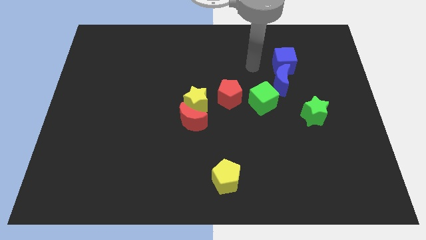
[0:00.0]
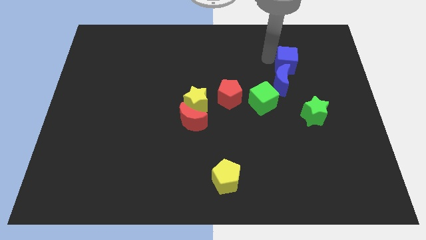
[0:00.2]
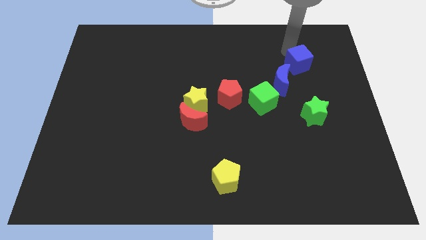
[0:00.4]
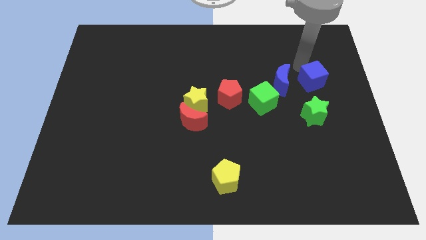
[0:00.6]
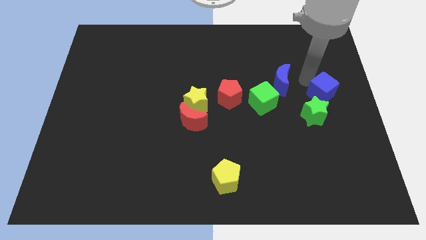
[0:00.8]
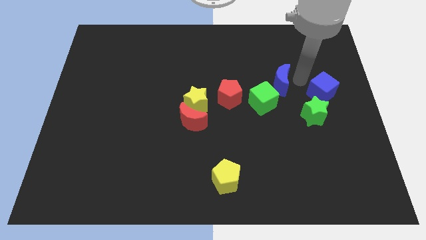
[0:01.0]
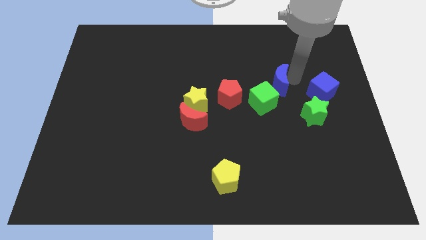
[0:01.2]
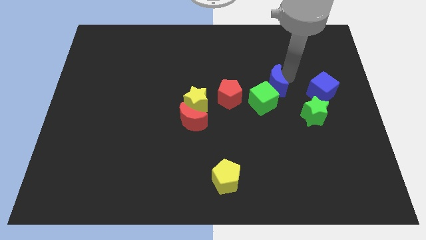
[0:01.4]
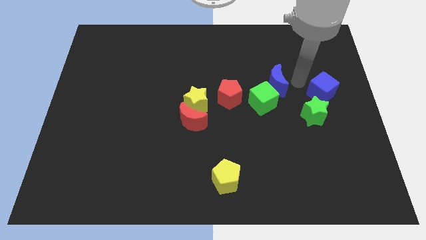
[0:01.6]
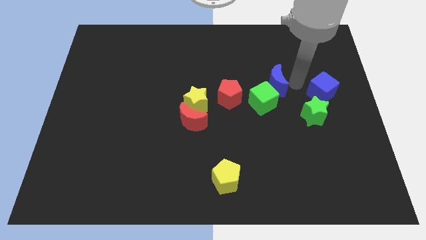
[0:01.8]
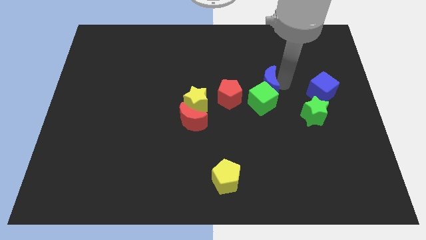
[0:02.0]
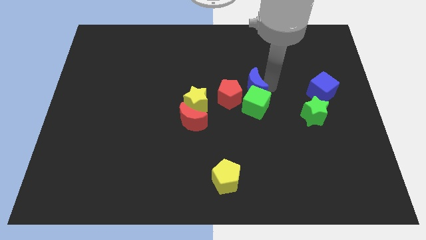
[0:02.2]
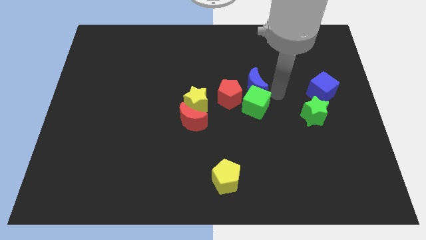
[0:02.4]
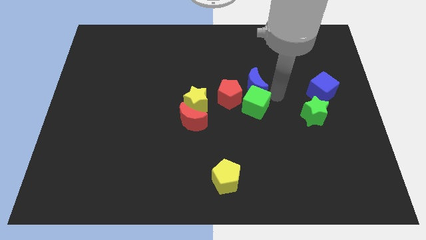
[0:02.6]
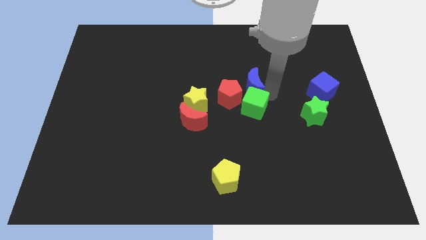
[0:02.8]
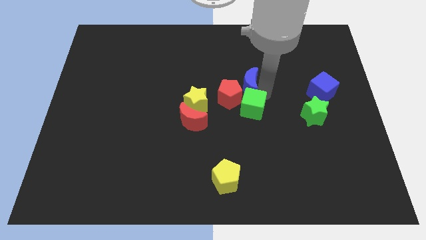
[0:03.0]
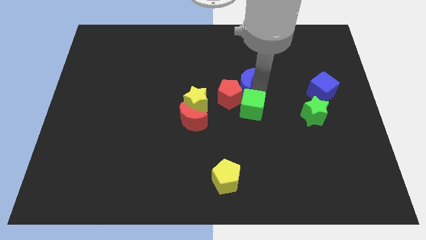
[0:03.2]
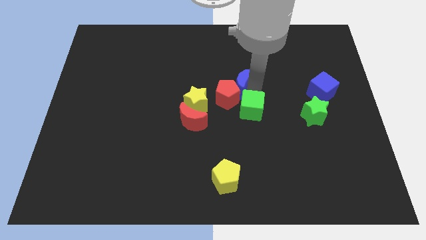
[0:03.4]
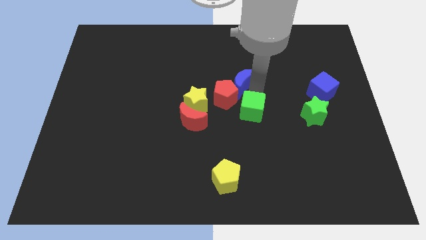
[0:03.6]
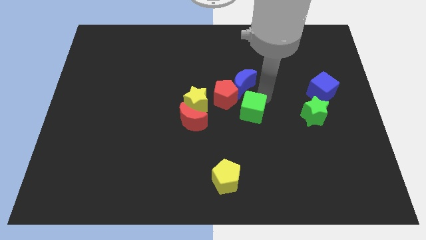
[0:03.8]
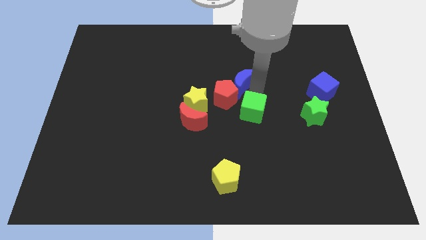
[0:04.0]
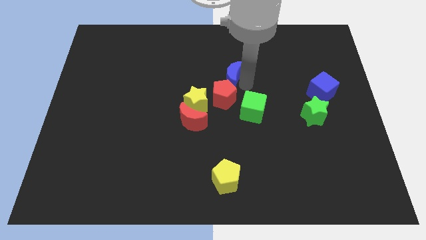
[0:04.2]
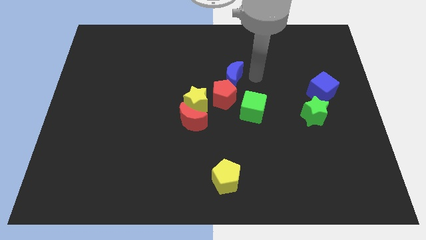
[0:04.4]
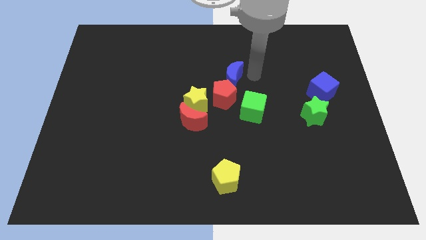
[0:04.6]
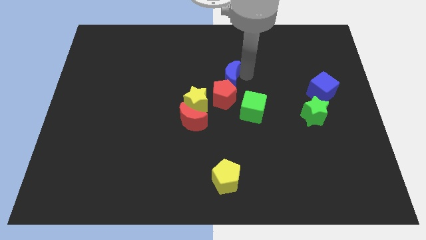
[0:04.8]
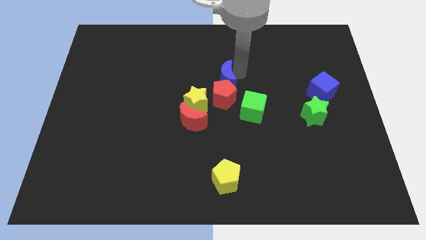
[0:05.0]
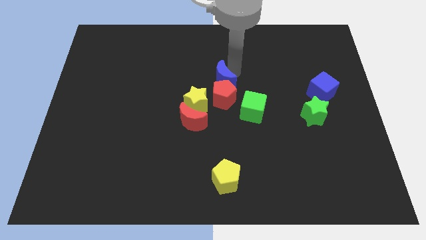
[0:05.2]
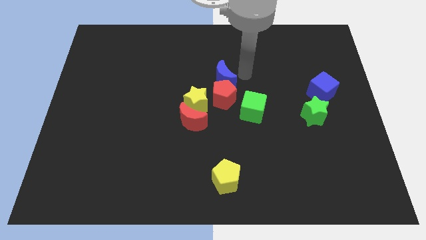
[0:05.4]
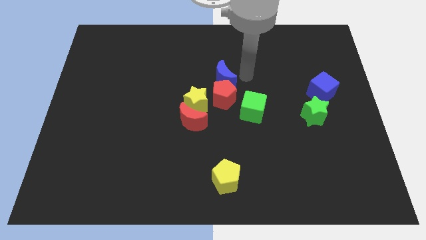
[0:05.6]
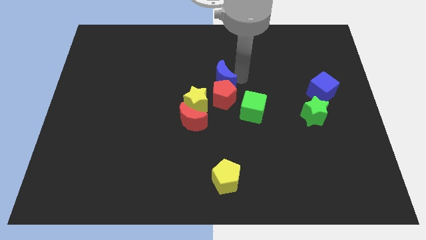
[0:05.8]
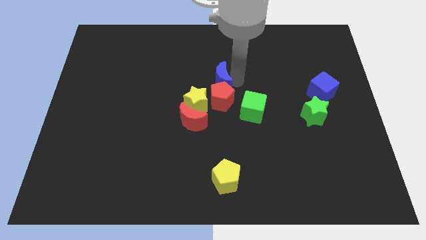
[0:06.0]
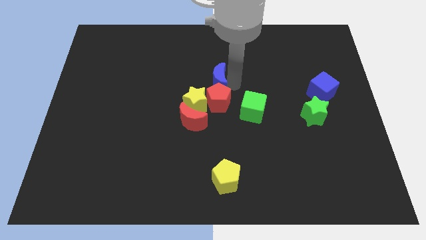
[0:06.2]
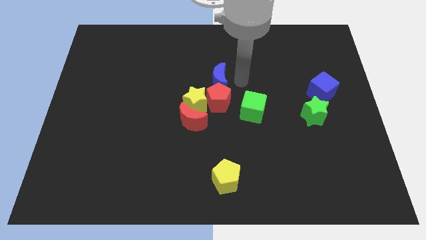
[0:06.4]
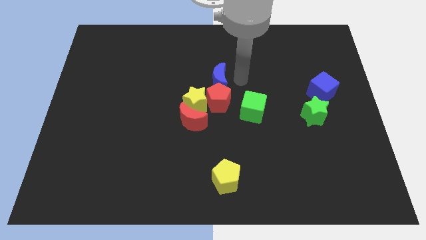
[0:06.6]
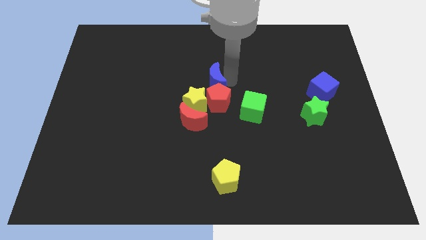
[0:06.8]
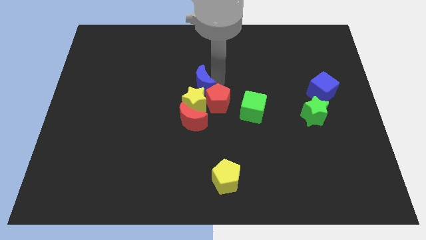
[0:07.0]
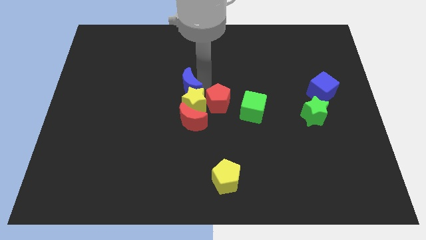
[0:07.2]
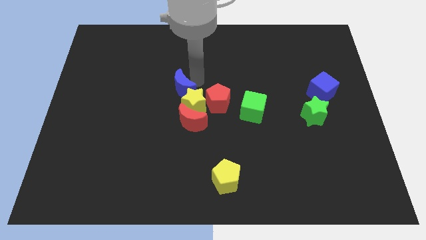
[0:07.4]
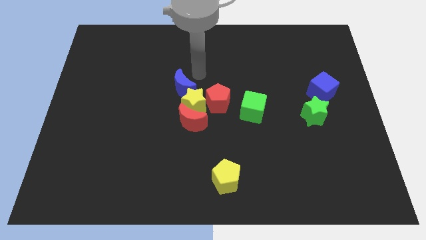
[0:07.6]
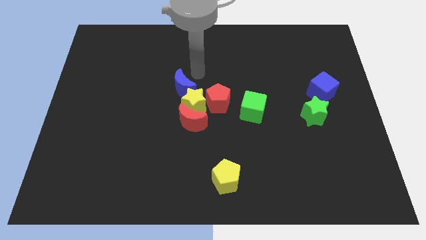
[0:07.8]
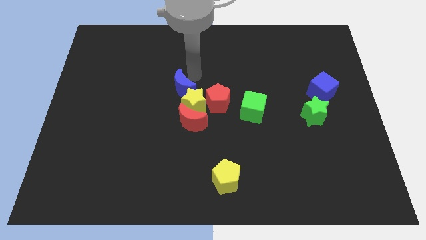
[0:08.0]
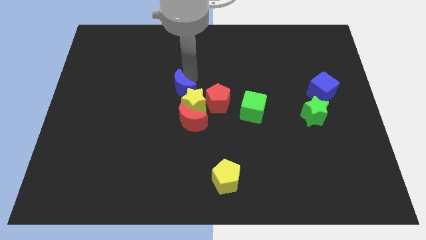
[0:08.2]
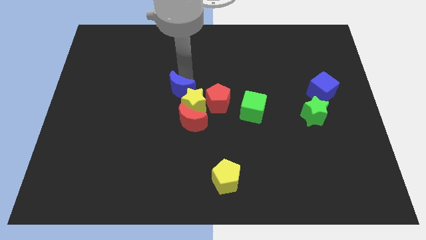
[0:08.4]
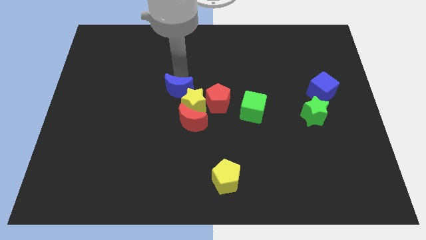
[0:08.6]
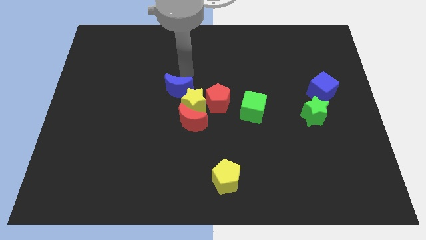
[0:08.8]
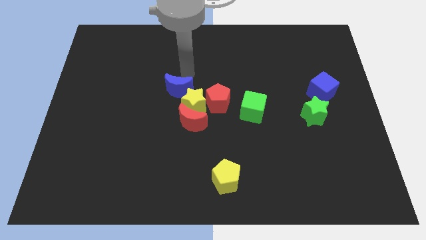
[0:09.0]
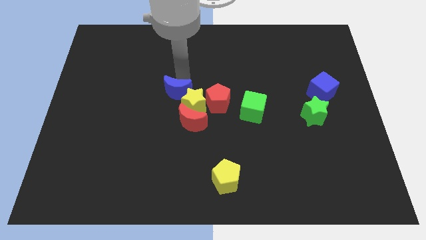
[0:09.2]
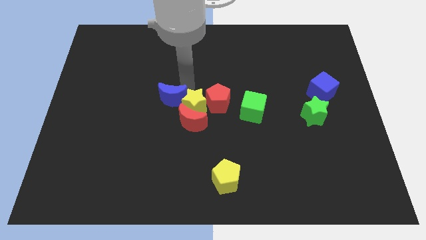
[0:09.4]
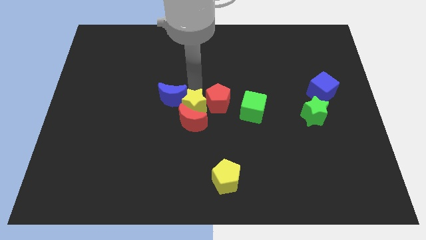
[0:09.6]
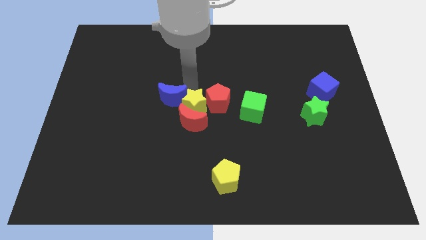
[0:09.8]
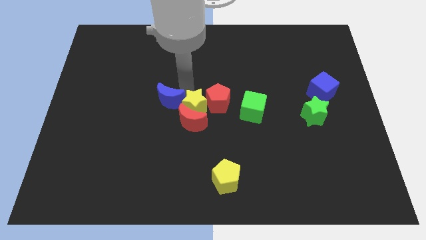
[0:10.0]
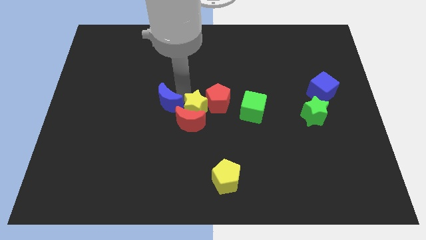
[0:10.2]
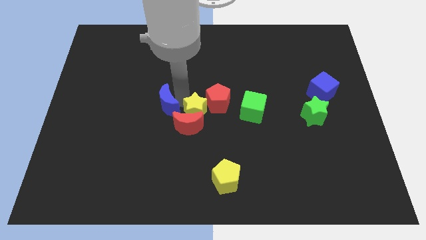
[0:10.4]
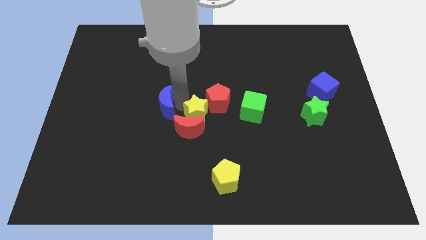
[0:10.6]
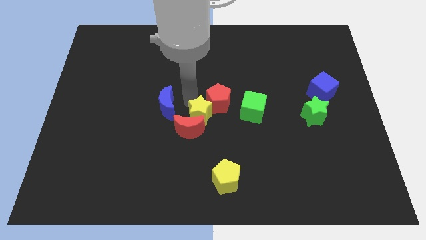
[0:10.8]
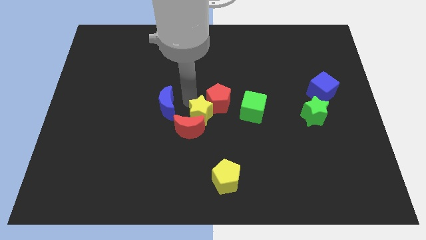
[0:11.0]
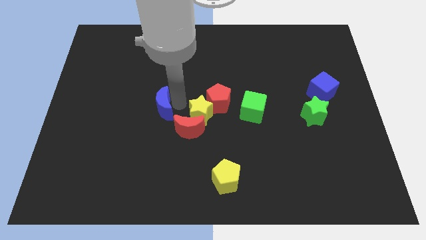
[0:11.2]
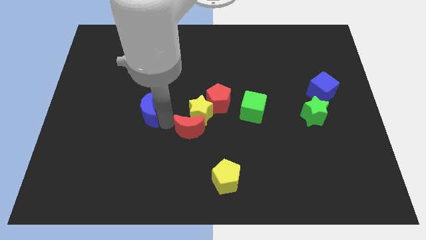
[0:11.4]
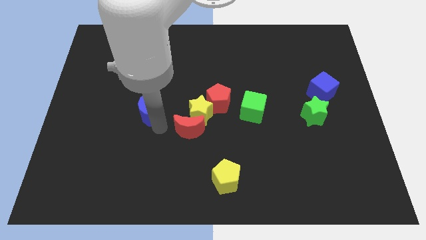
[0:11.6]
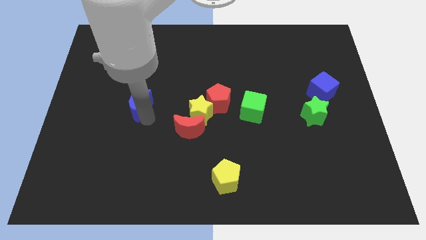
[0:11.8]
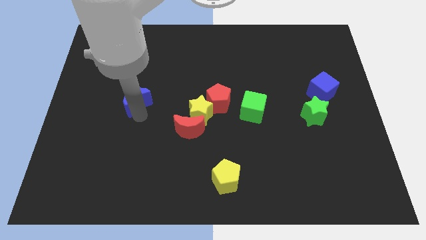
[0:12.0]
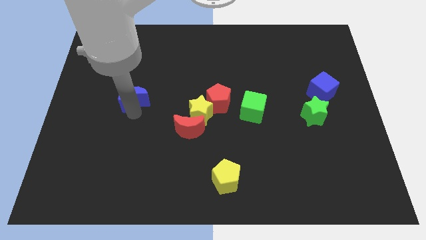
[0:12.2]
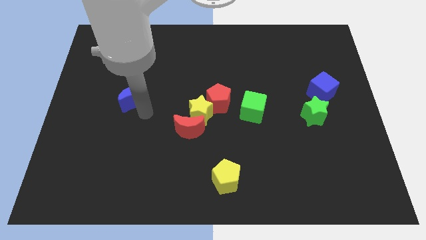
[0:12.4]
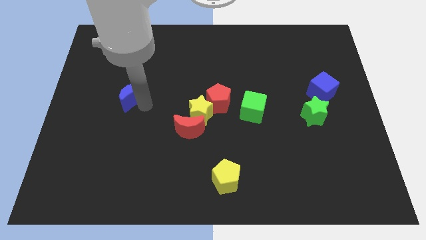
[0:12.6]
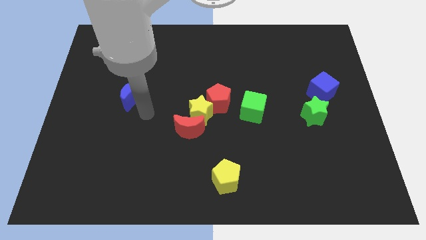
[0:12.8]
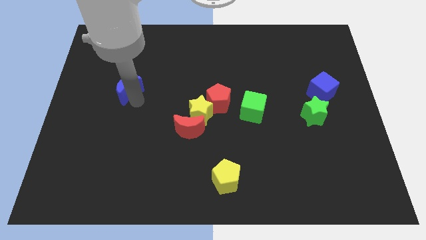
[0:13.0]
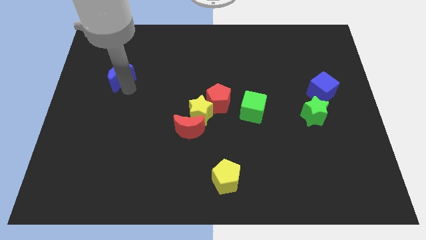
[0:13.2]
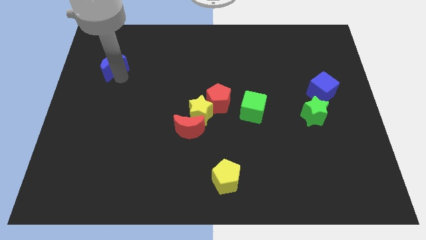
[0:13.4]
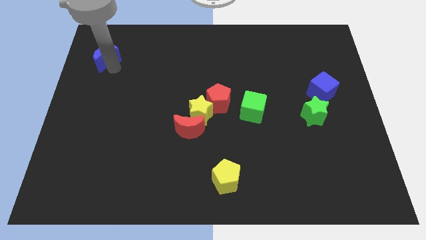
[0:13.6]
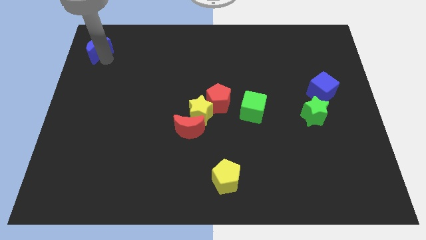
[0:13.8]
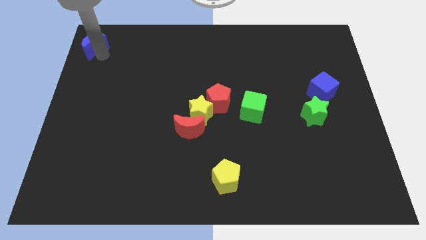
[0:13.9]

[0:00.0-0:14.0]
put the blue moon to the upper left corner
